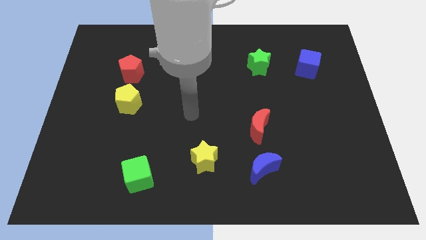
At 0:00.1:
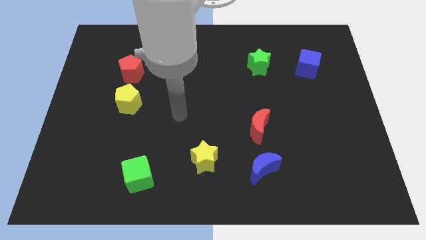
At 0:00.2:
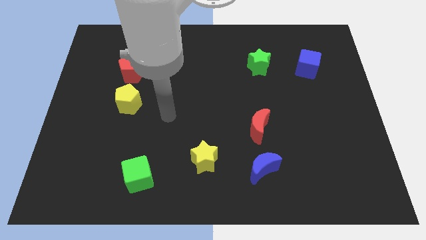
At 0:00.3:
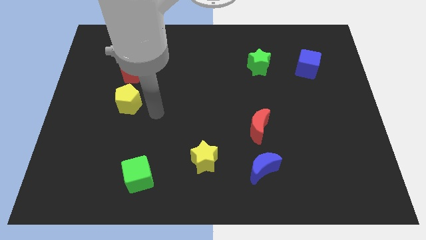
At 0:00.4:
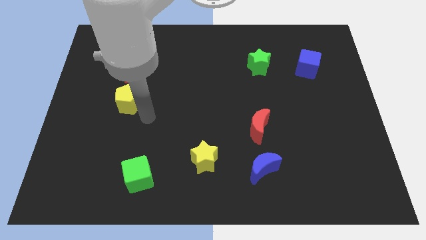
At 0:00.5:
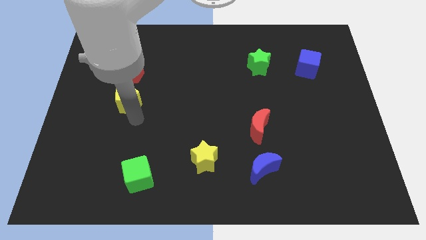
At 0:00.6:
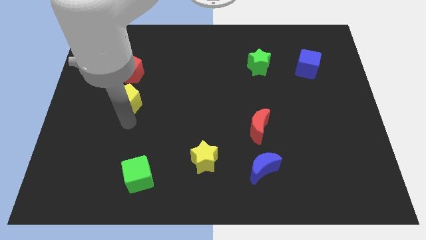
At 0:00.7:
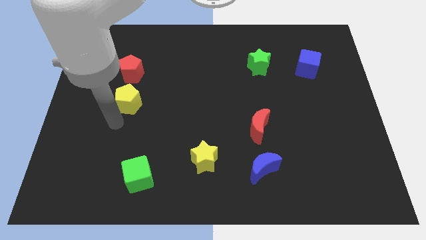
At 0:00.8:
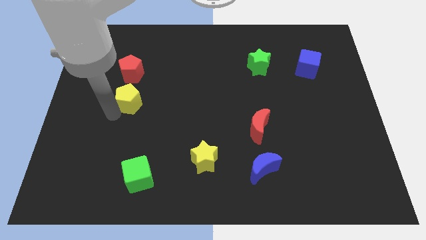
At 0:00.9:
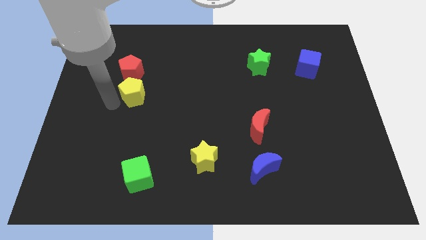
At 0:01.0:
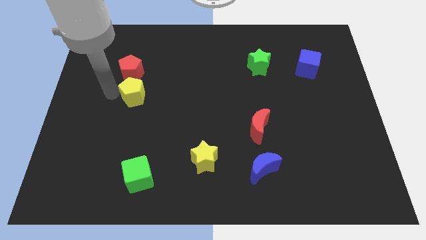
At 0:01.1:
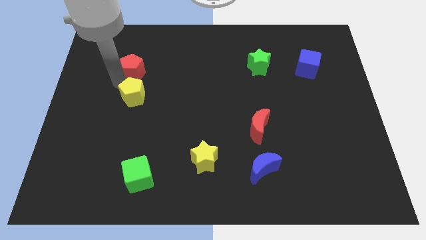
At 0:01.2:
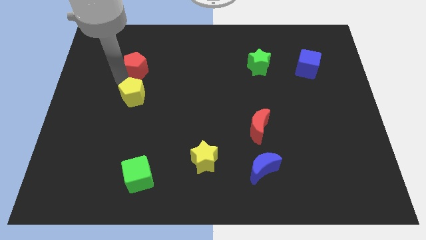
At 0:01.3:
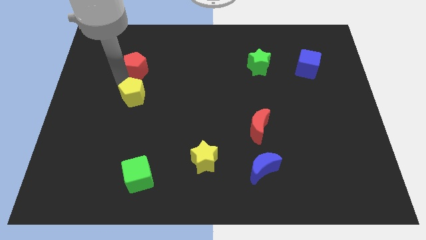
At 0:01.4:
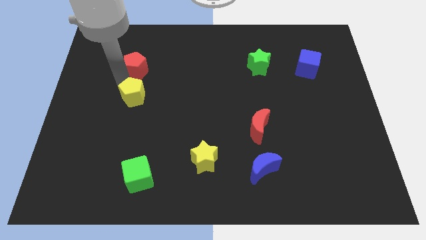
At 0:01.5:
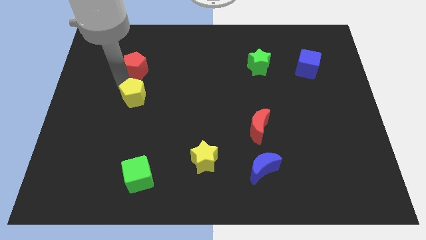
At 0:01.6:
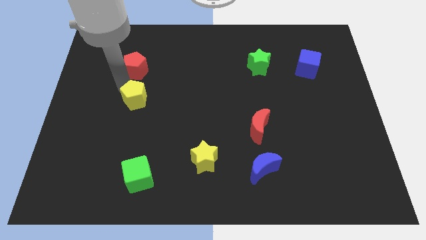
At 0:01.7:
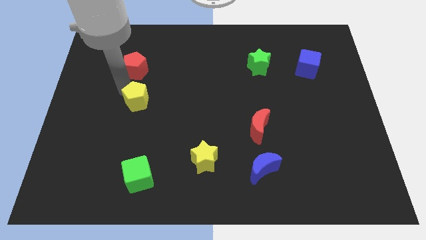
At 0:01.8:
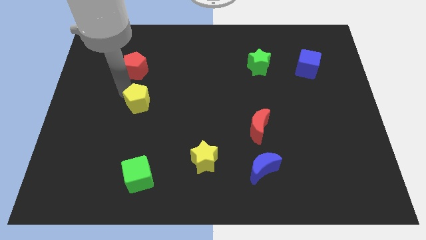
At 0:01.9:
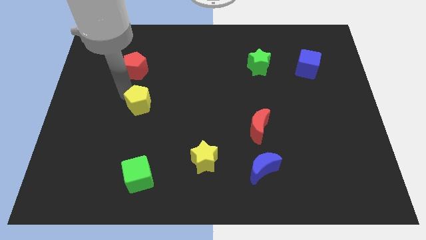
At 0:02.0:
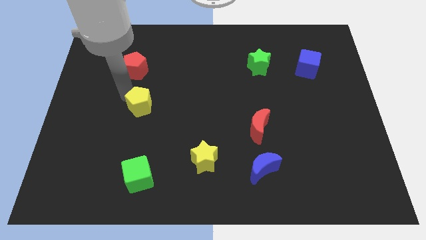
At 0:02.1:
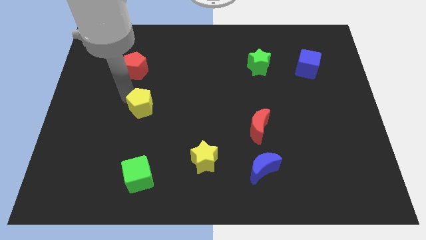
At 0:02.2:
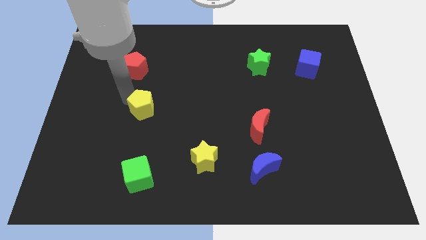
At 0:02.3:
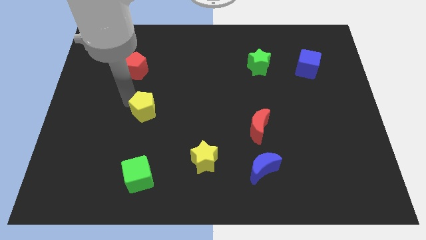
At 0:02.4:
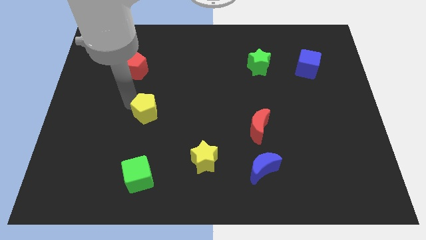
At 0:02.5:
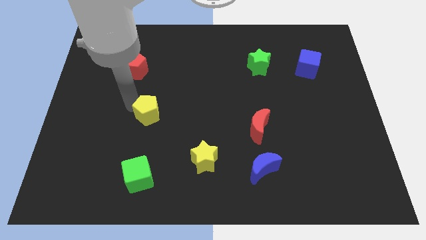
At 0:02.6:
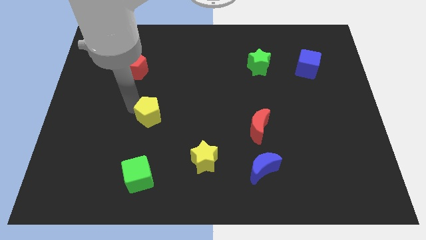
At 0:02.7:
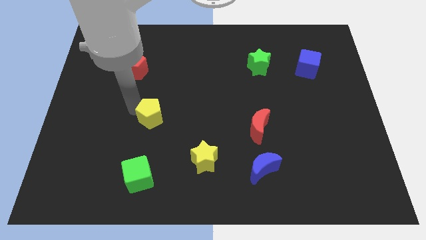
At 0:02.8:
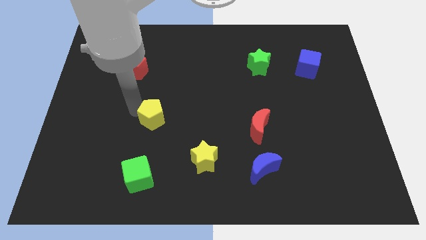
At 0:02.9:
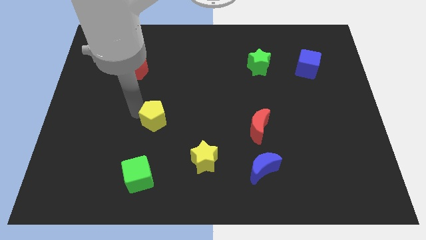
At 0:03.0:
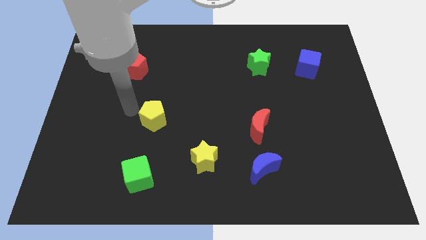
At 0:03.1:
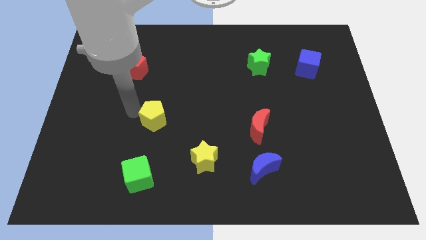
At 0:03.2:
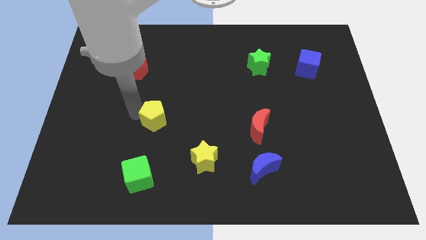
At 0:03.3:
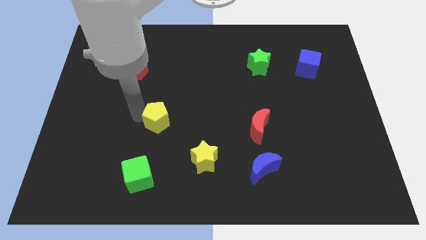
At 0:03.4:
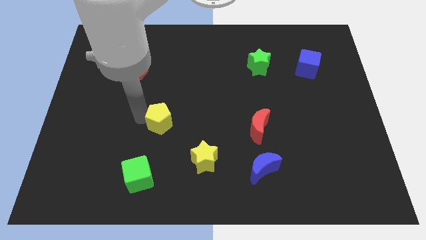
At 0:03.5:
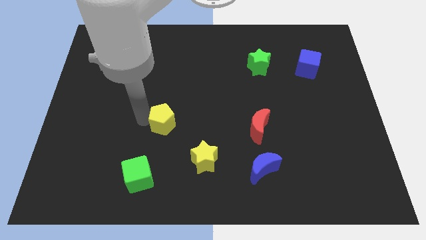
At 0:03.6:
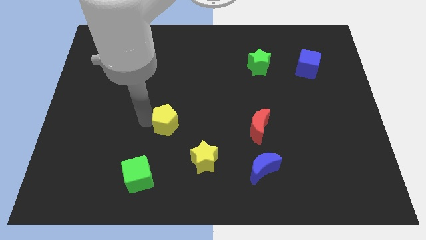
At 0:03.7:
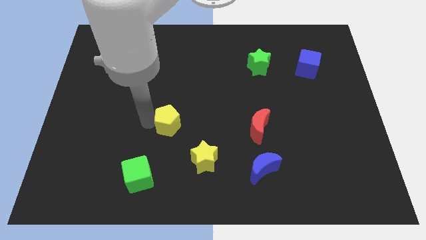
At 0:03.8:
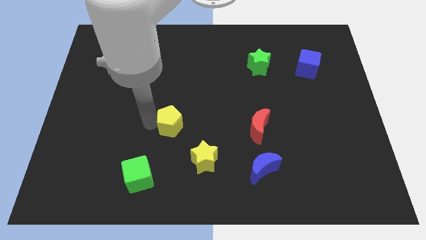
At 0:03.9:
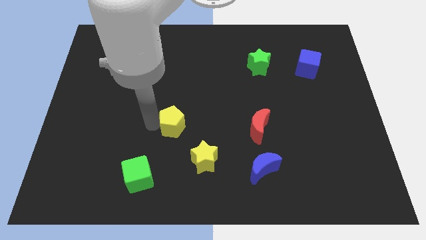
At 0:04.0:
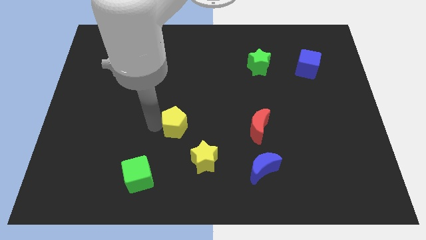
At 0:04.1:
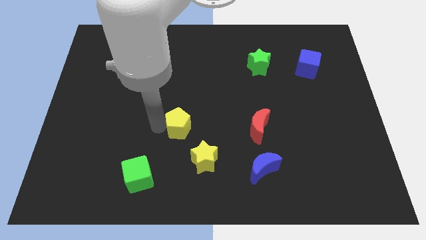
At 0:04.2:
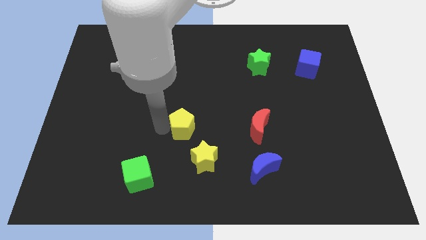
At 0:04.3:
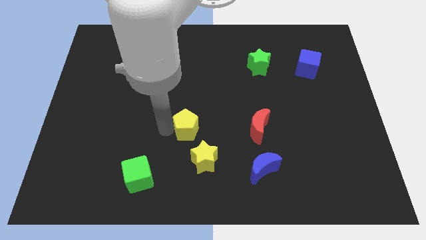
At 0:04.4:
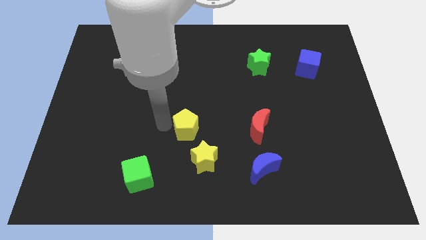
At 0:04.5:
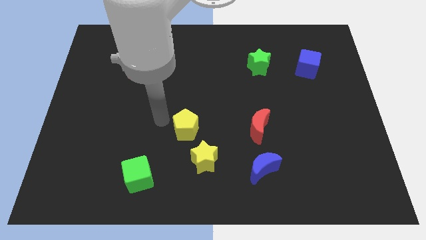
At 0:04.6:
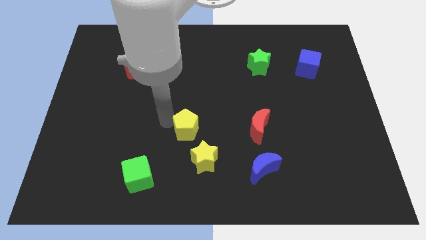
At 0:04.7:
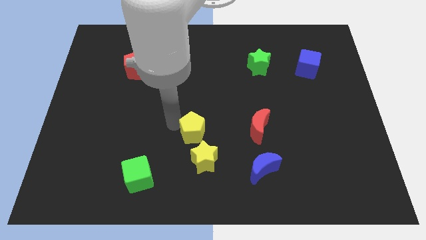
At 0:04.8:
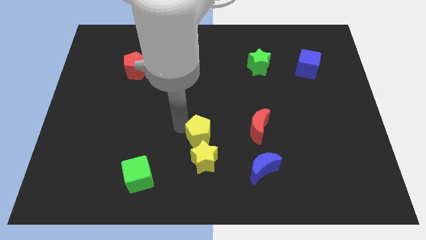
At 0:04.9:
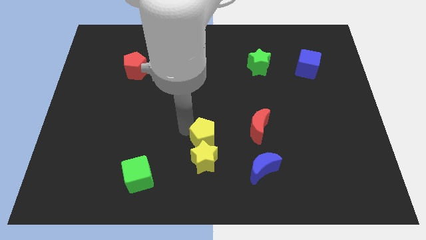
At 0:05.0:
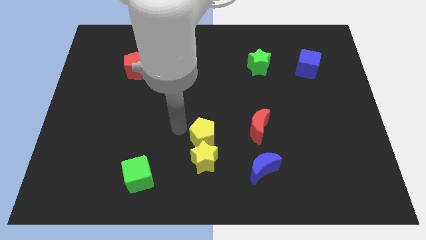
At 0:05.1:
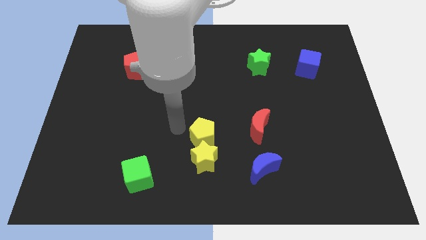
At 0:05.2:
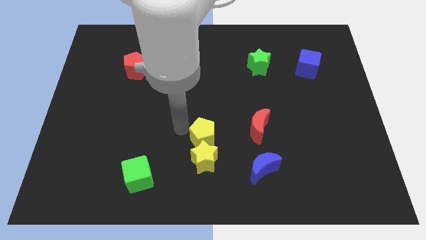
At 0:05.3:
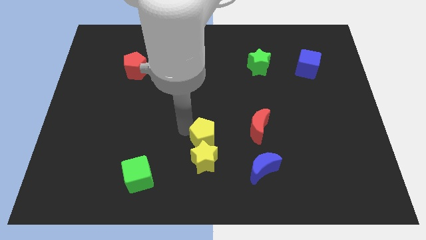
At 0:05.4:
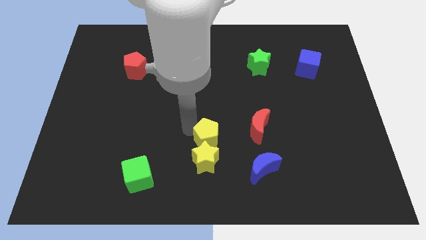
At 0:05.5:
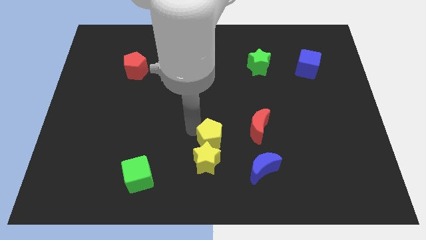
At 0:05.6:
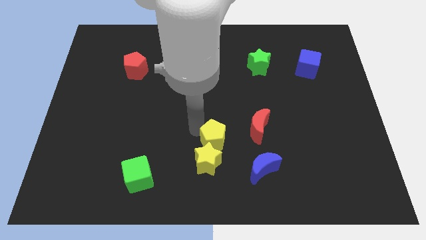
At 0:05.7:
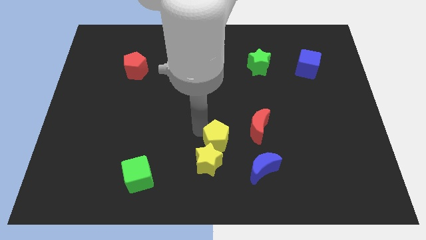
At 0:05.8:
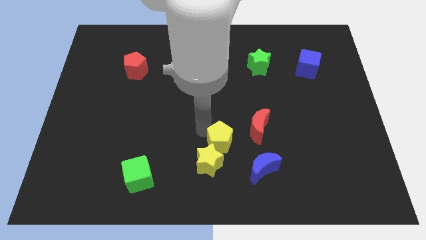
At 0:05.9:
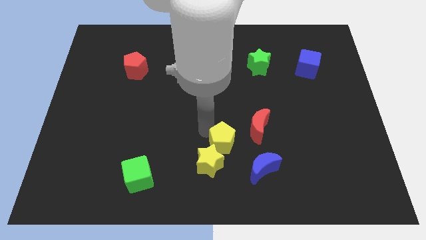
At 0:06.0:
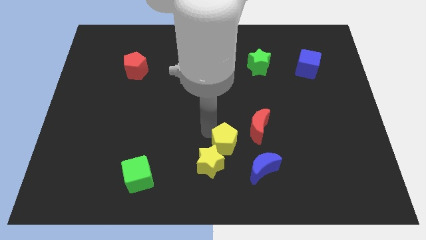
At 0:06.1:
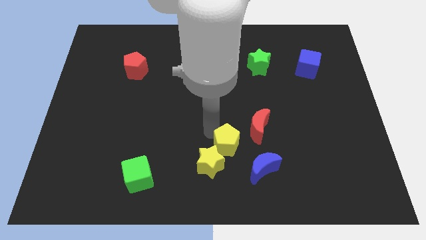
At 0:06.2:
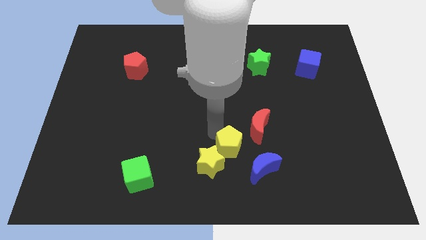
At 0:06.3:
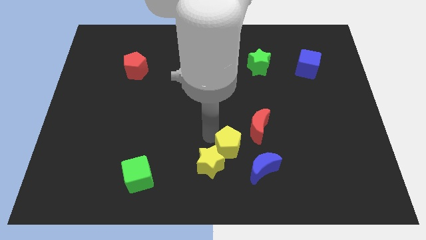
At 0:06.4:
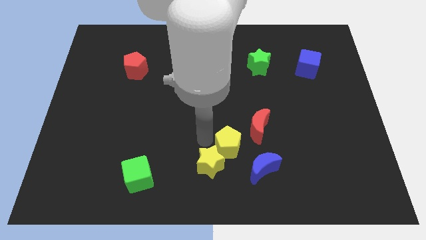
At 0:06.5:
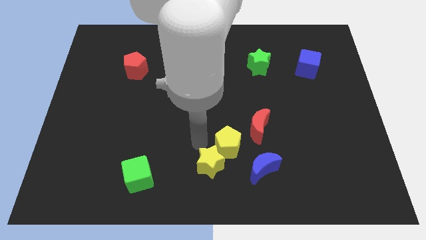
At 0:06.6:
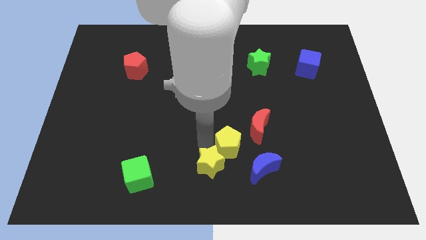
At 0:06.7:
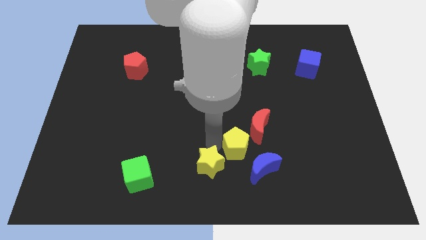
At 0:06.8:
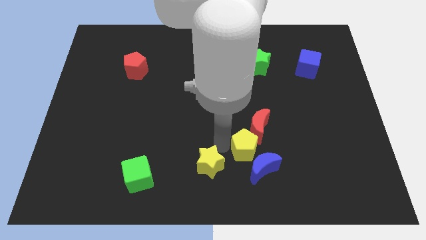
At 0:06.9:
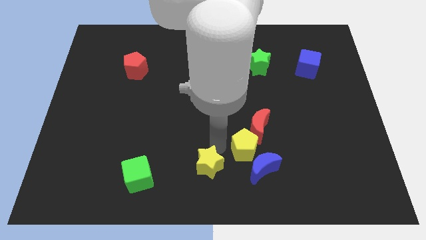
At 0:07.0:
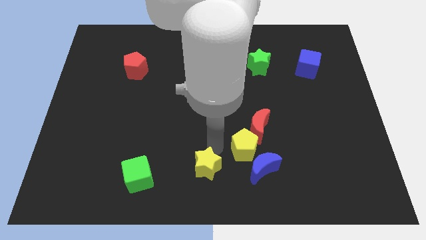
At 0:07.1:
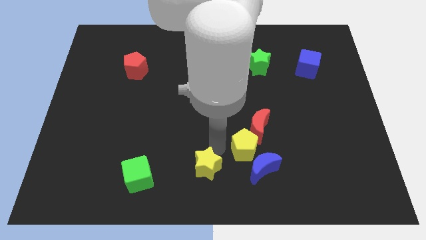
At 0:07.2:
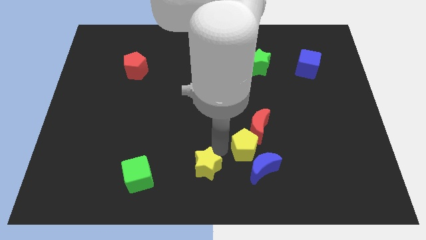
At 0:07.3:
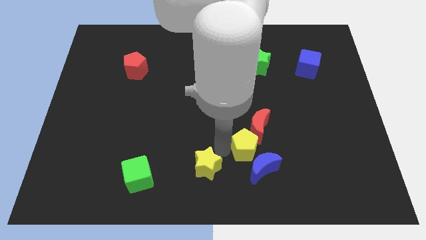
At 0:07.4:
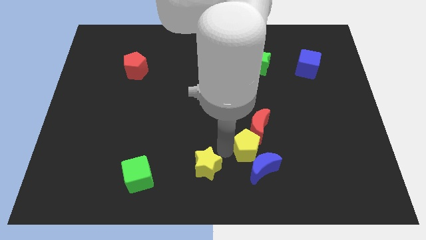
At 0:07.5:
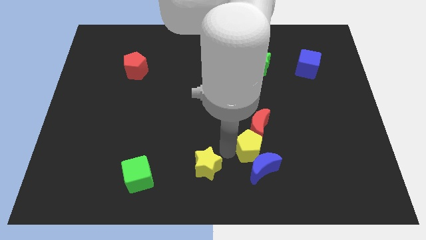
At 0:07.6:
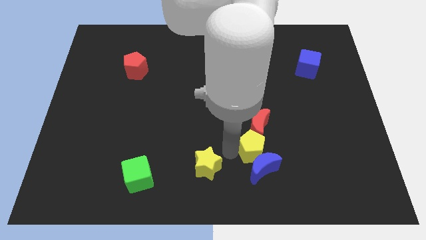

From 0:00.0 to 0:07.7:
move the yellow pentagon to the top right side of the blue moon

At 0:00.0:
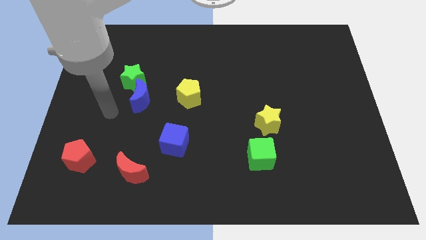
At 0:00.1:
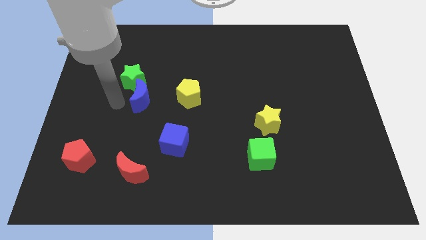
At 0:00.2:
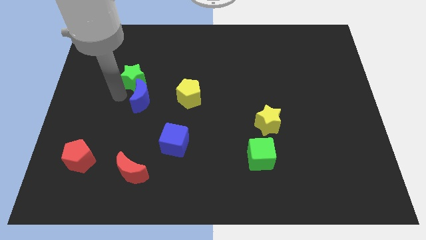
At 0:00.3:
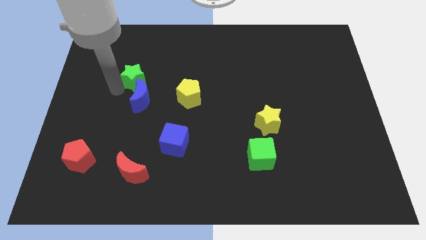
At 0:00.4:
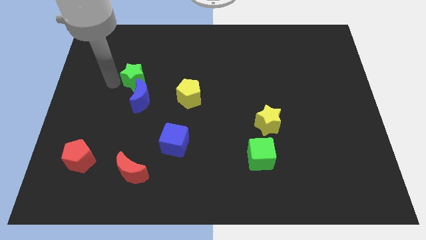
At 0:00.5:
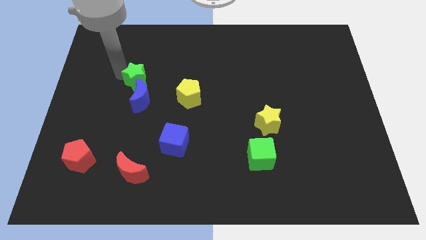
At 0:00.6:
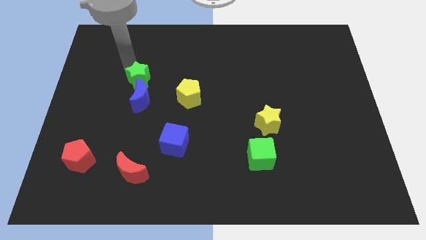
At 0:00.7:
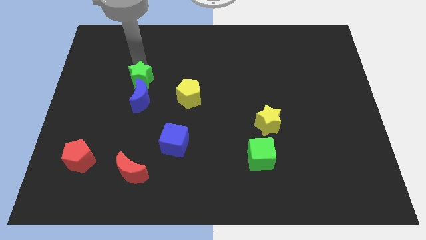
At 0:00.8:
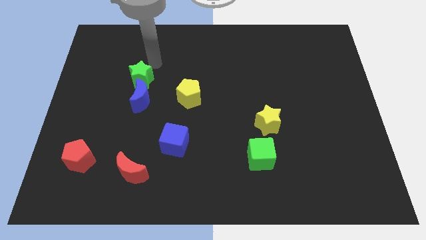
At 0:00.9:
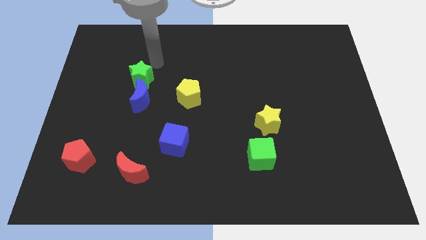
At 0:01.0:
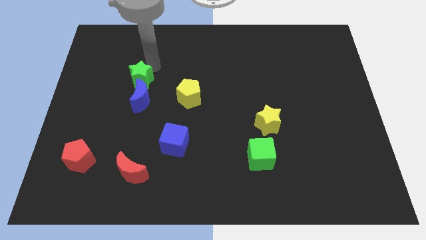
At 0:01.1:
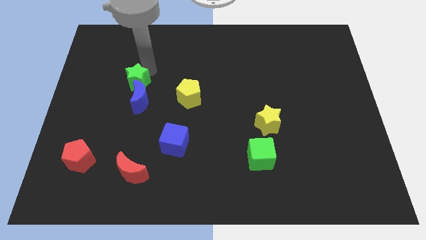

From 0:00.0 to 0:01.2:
put the green star to the left of the yellow pentagon
